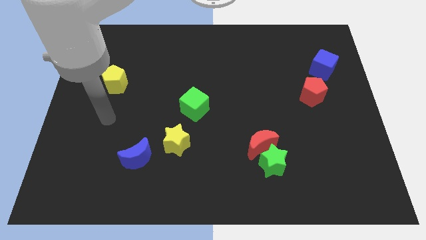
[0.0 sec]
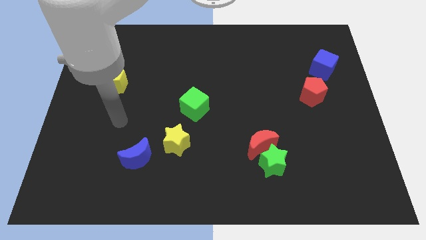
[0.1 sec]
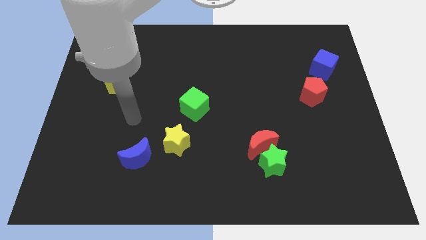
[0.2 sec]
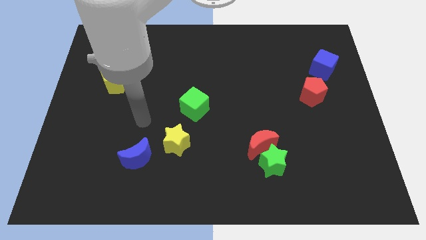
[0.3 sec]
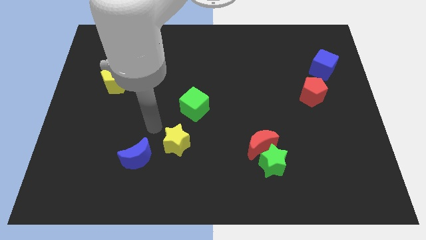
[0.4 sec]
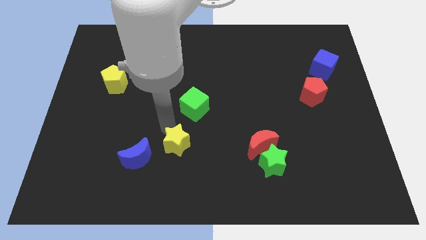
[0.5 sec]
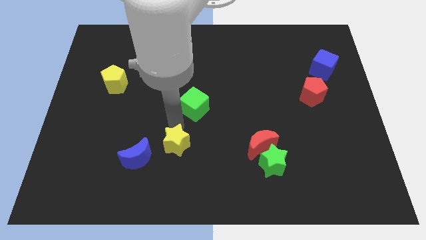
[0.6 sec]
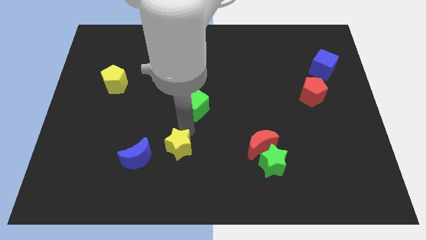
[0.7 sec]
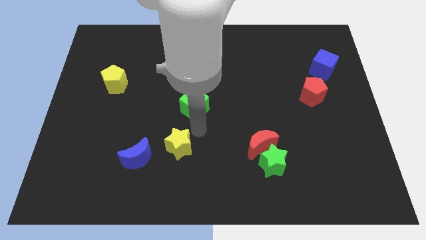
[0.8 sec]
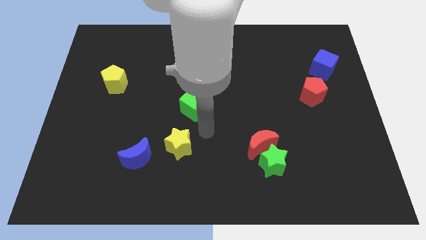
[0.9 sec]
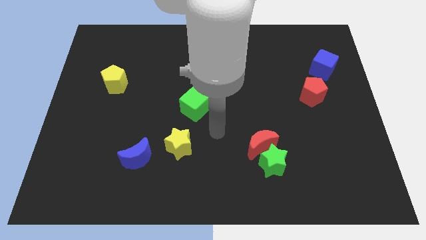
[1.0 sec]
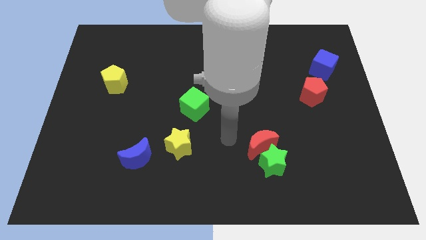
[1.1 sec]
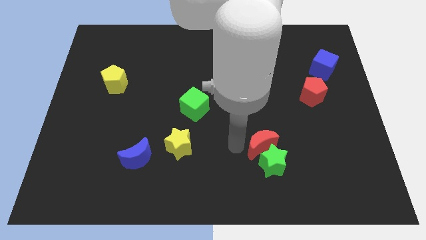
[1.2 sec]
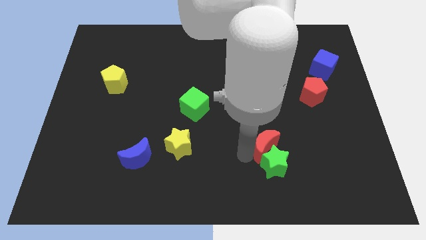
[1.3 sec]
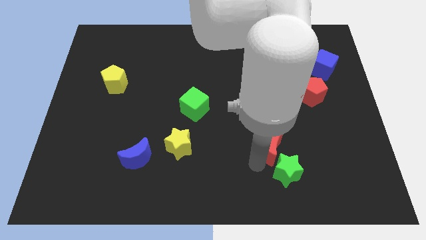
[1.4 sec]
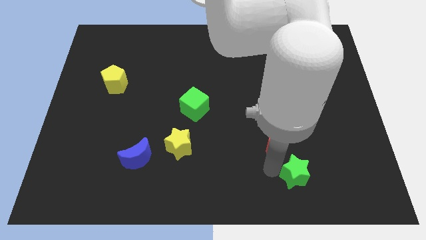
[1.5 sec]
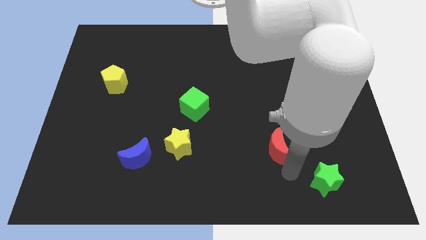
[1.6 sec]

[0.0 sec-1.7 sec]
pull the red moon apart from the green star

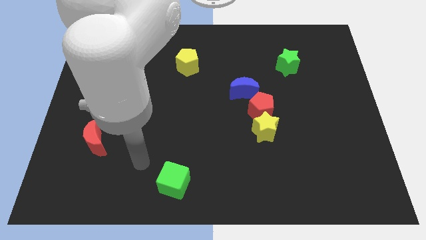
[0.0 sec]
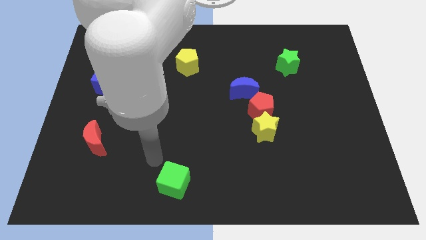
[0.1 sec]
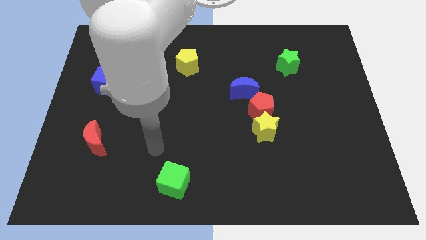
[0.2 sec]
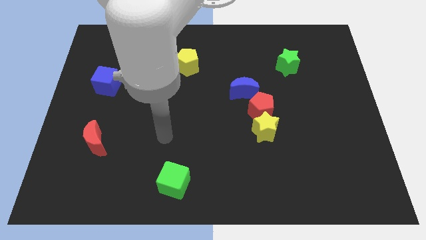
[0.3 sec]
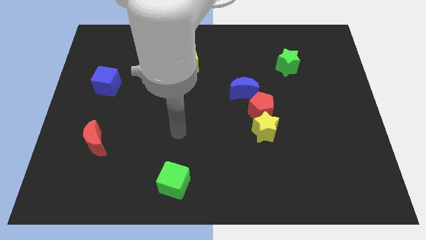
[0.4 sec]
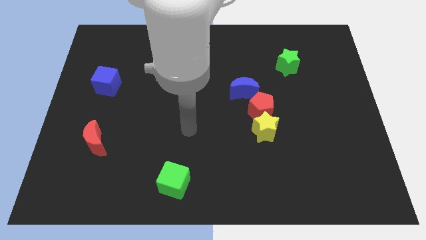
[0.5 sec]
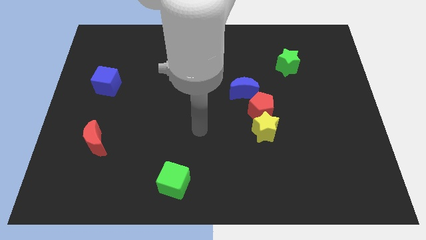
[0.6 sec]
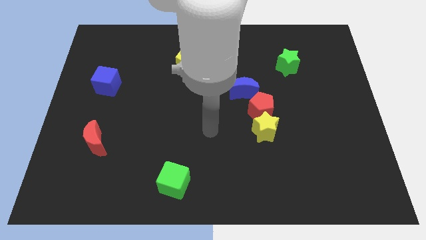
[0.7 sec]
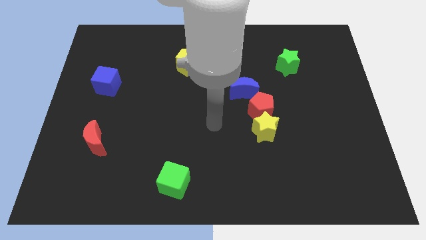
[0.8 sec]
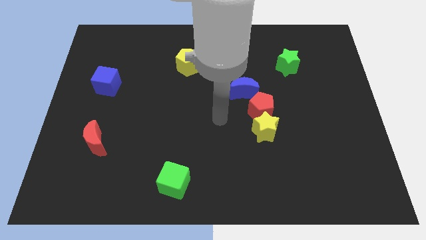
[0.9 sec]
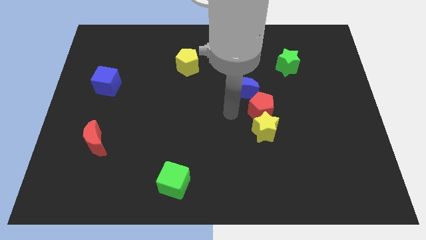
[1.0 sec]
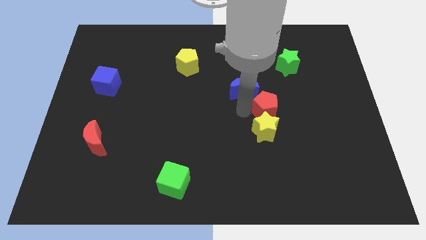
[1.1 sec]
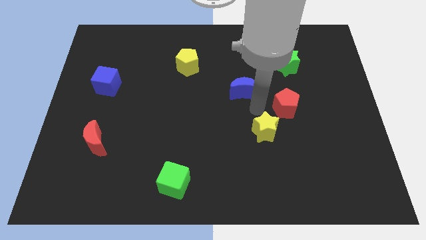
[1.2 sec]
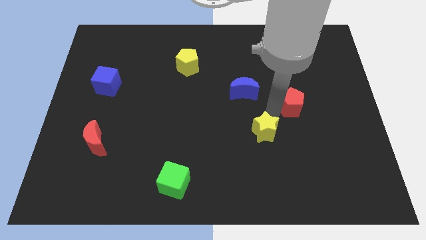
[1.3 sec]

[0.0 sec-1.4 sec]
move the yellow star away from the red pentagon

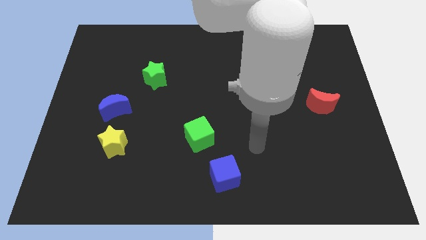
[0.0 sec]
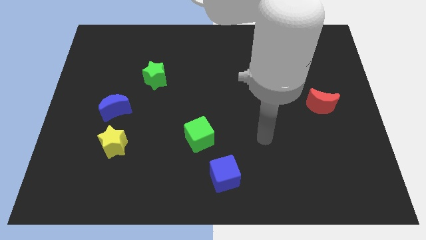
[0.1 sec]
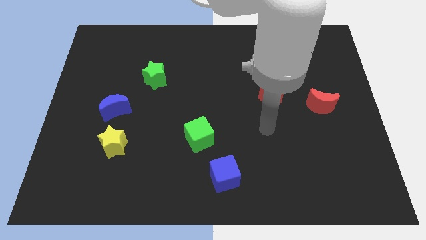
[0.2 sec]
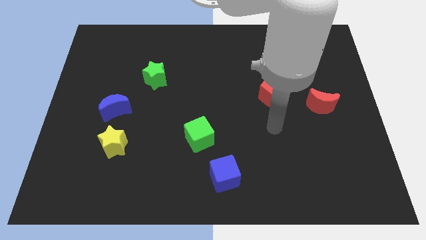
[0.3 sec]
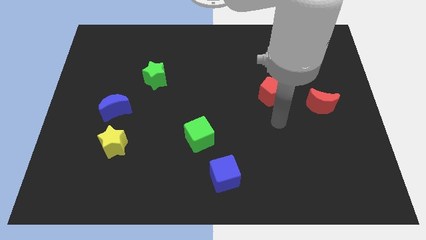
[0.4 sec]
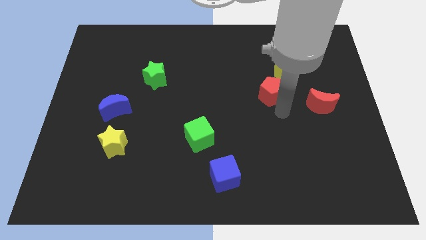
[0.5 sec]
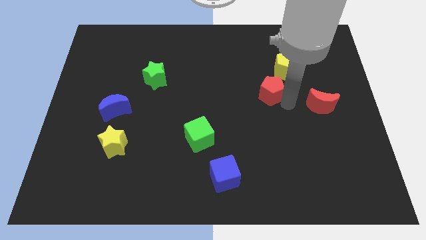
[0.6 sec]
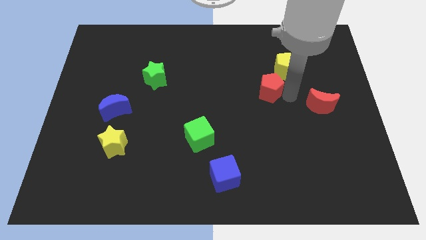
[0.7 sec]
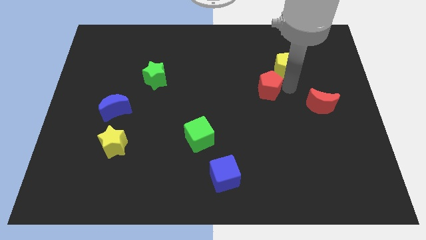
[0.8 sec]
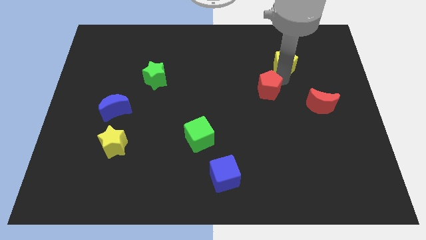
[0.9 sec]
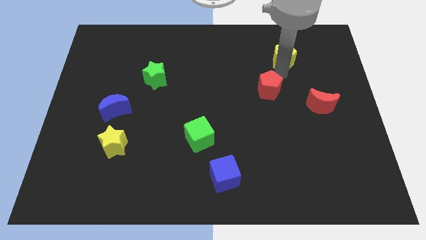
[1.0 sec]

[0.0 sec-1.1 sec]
move the red pentagon away from the yellow pentagon

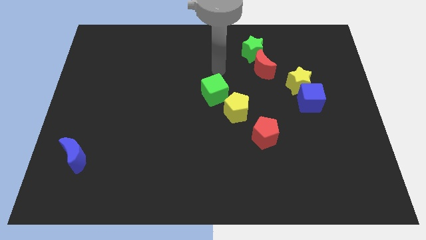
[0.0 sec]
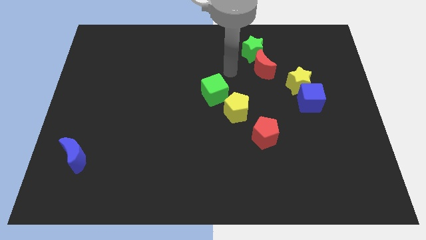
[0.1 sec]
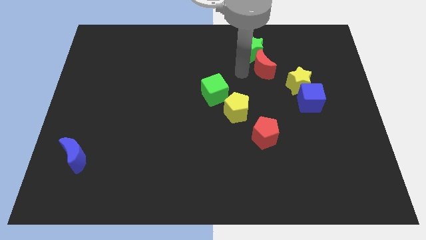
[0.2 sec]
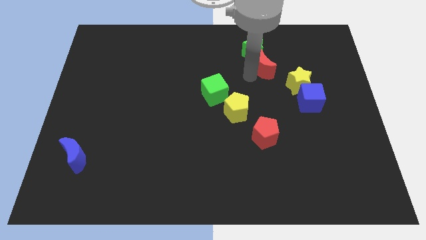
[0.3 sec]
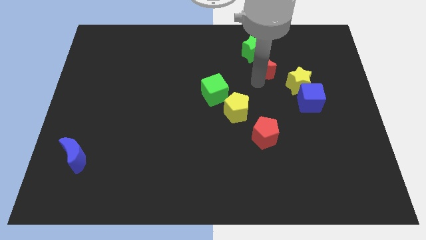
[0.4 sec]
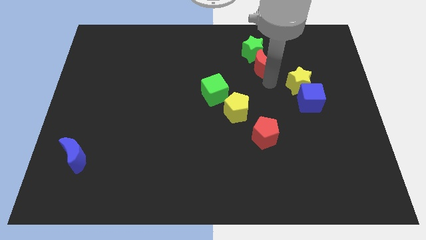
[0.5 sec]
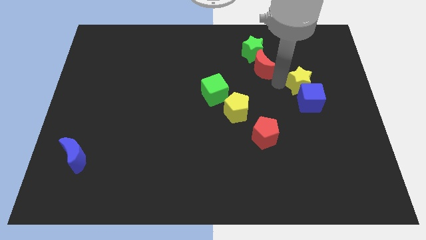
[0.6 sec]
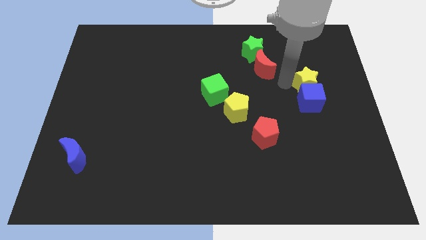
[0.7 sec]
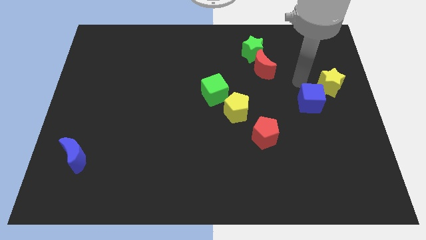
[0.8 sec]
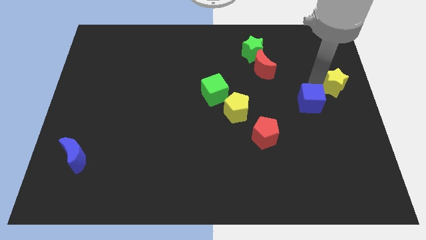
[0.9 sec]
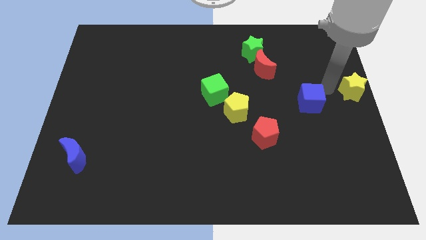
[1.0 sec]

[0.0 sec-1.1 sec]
pull the blue cube apart from the yellow star

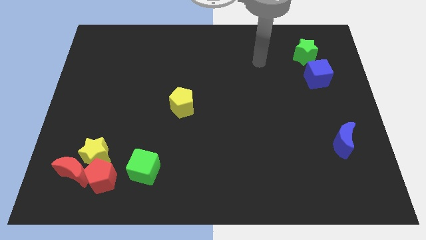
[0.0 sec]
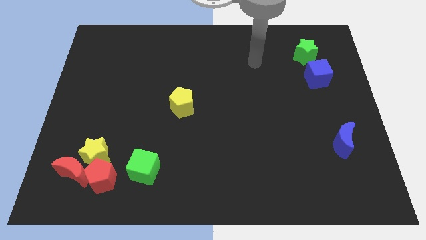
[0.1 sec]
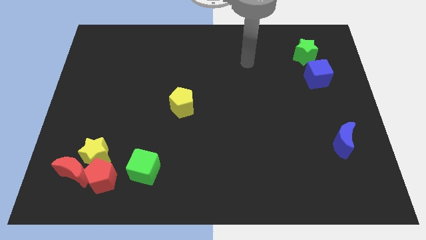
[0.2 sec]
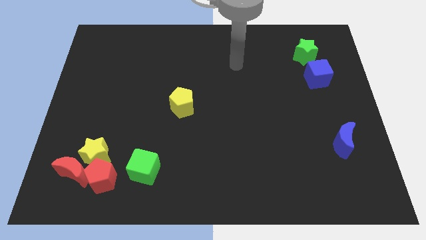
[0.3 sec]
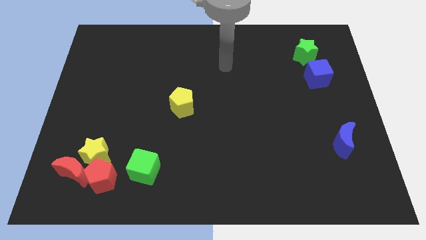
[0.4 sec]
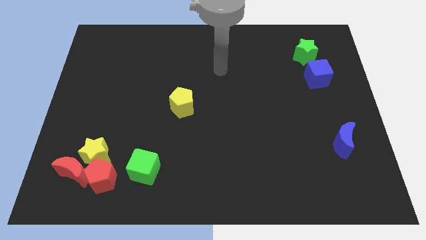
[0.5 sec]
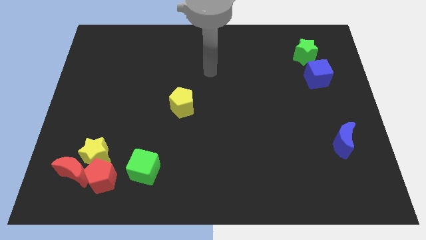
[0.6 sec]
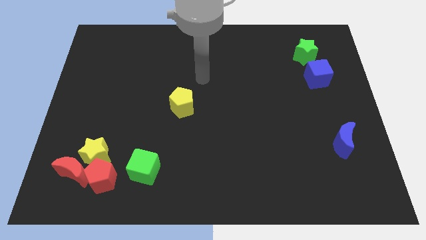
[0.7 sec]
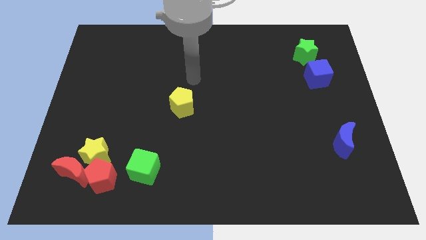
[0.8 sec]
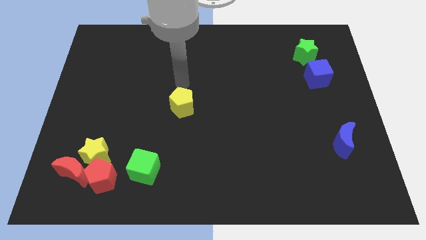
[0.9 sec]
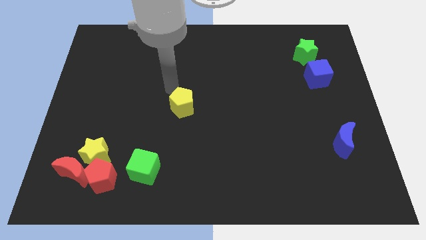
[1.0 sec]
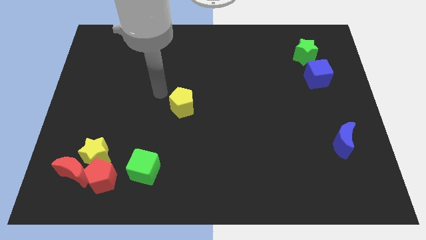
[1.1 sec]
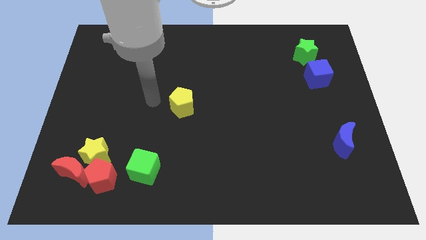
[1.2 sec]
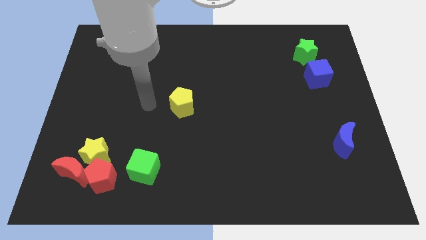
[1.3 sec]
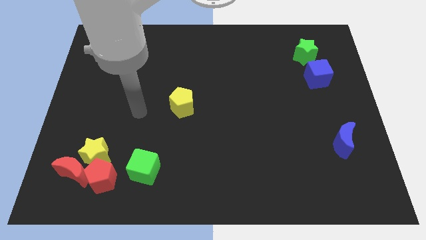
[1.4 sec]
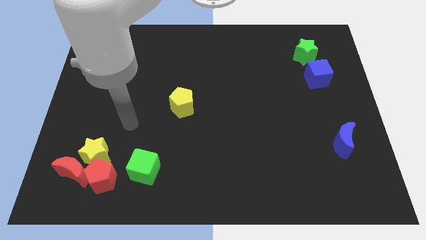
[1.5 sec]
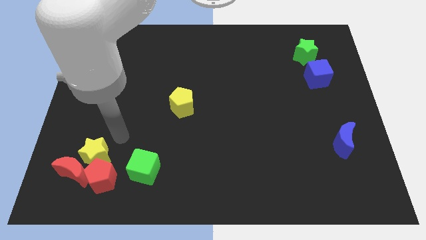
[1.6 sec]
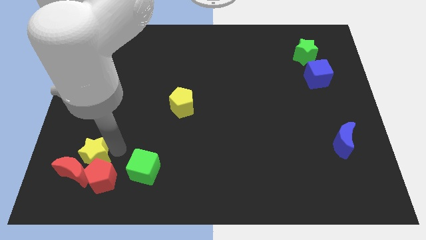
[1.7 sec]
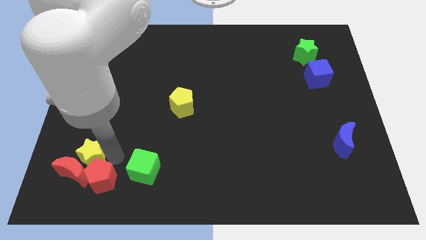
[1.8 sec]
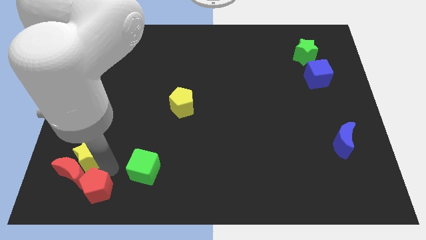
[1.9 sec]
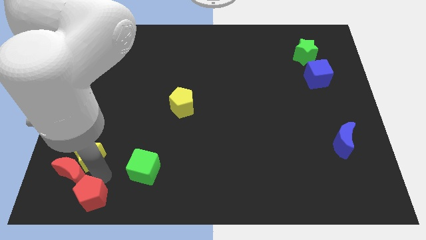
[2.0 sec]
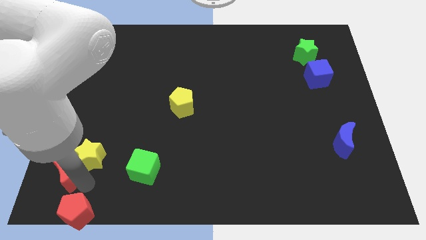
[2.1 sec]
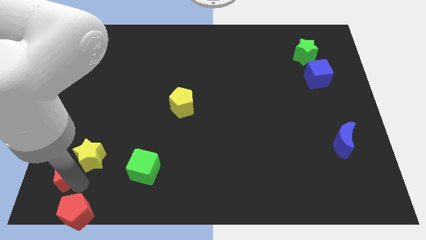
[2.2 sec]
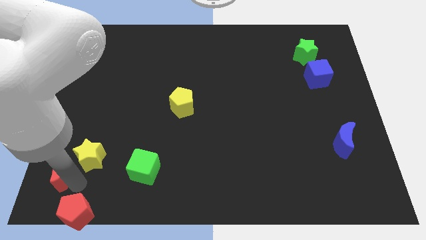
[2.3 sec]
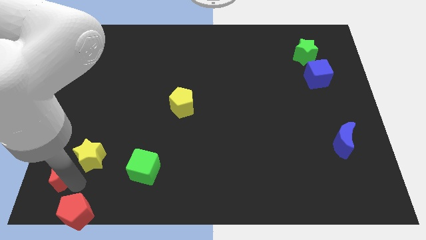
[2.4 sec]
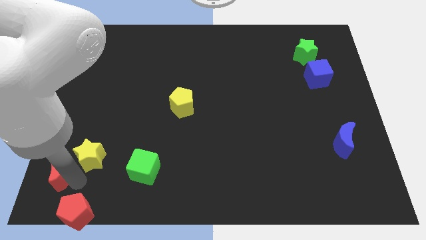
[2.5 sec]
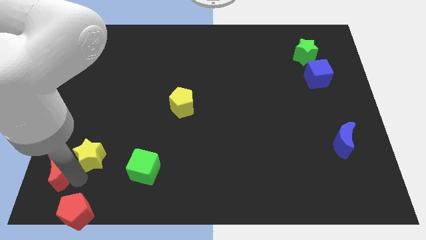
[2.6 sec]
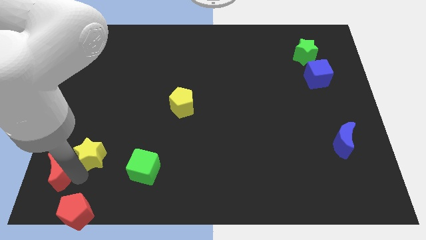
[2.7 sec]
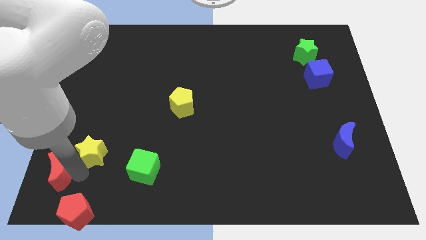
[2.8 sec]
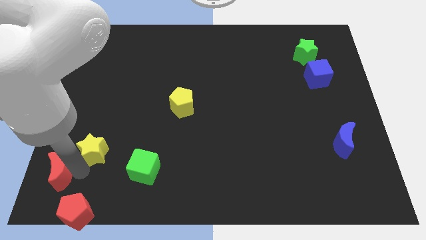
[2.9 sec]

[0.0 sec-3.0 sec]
move the yellow star away from the red moon and red pentagon

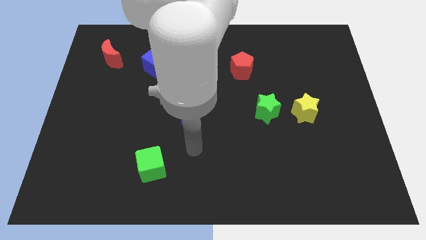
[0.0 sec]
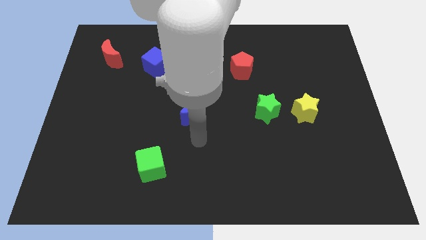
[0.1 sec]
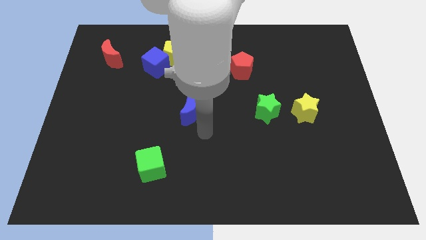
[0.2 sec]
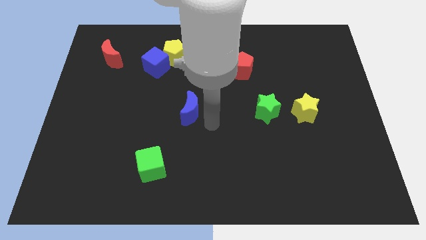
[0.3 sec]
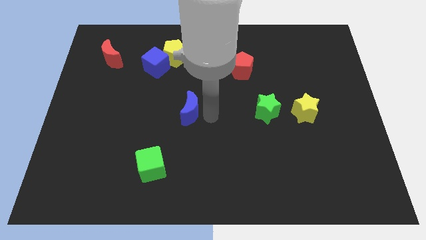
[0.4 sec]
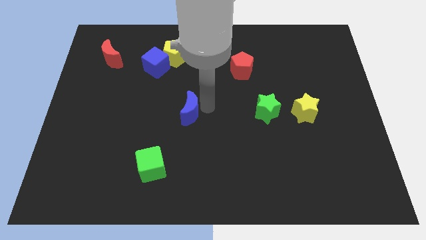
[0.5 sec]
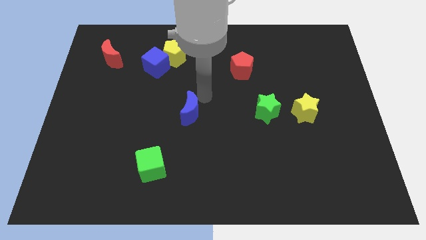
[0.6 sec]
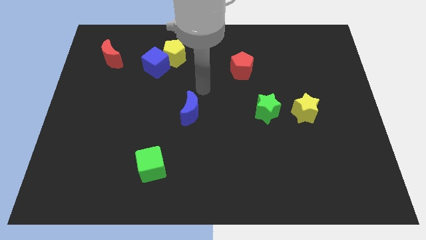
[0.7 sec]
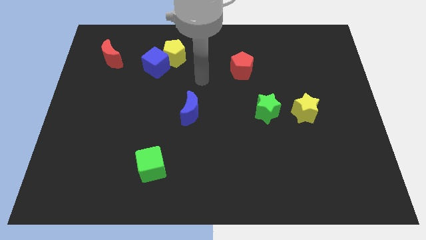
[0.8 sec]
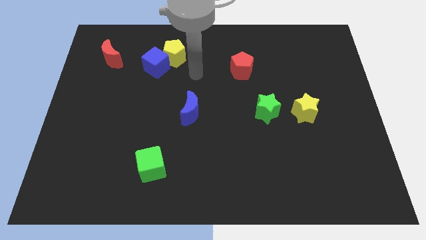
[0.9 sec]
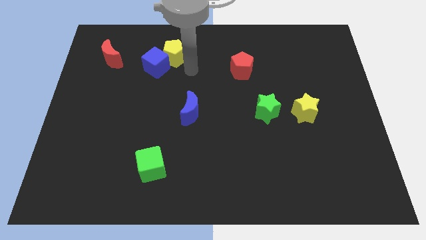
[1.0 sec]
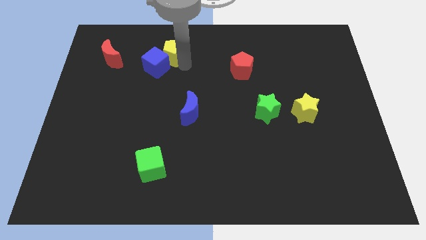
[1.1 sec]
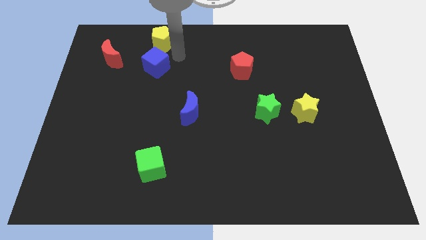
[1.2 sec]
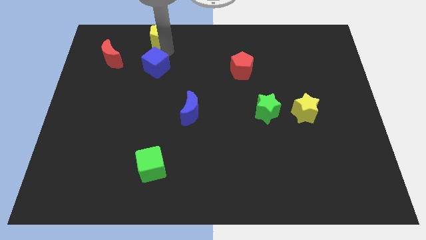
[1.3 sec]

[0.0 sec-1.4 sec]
move the blue cube away from the yellow pentagon
